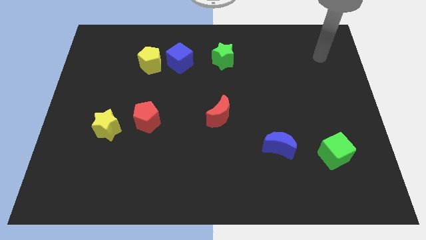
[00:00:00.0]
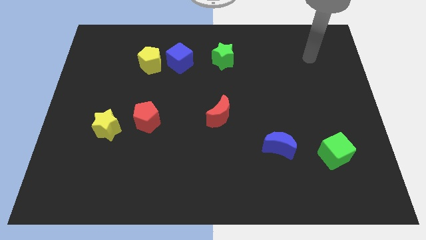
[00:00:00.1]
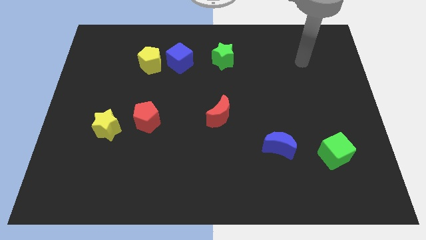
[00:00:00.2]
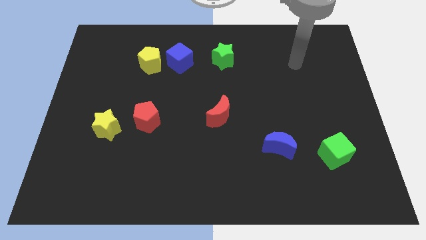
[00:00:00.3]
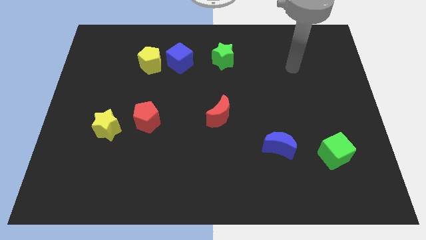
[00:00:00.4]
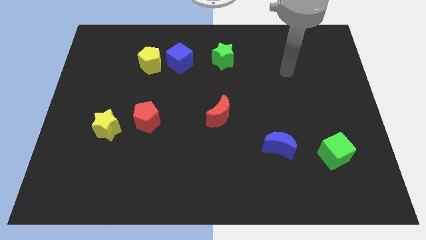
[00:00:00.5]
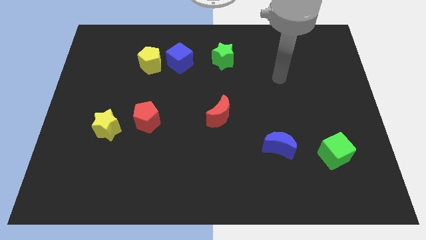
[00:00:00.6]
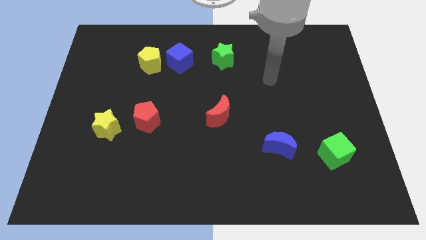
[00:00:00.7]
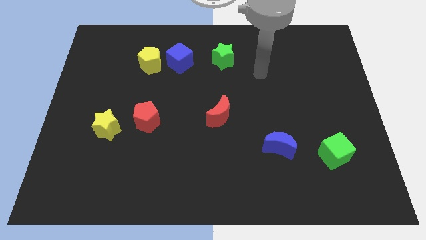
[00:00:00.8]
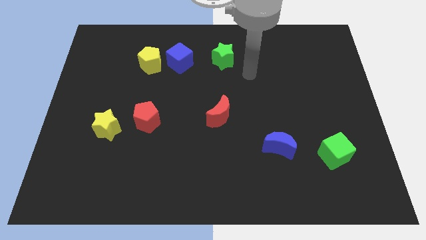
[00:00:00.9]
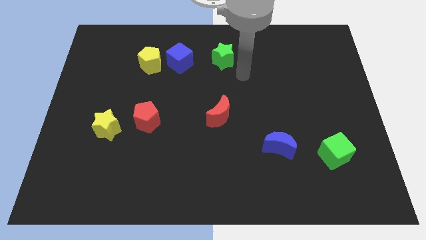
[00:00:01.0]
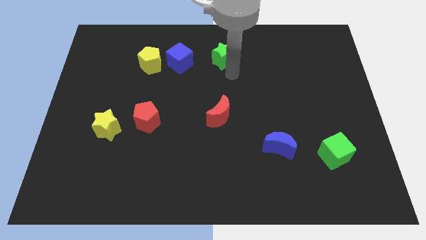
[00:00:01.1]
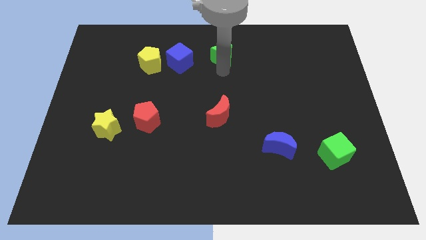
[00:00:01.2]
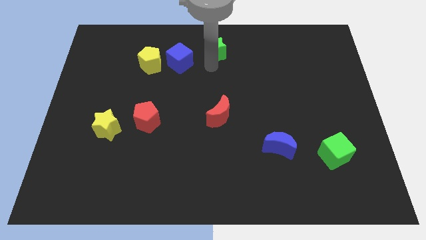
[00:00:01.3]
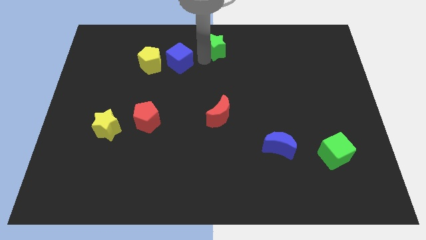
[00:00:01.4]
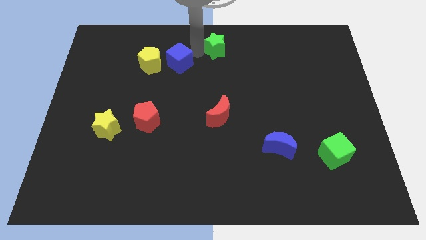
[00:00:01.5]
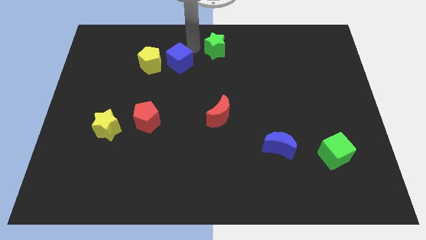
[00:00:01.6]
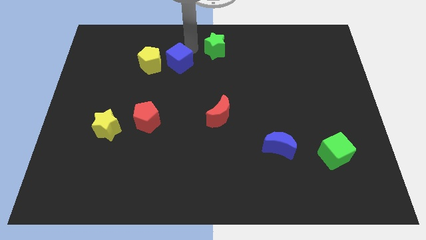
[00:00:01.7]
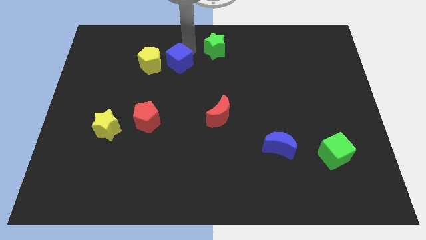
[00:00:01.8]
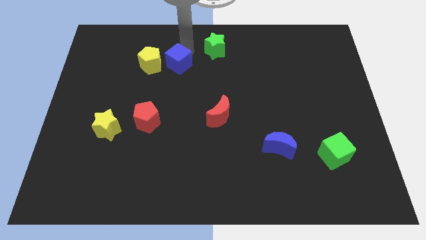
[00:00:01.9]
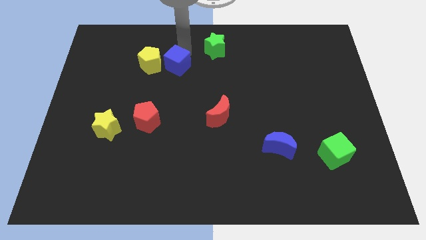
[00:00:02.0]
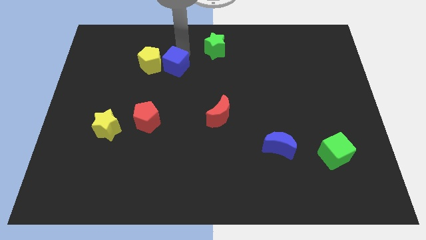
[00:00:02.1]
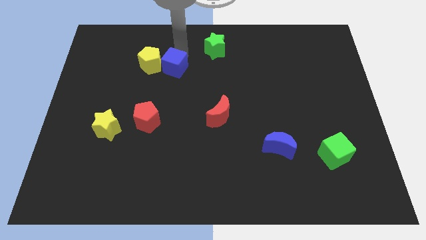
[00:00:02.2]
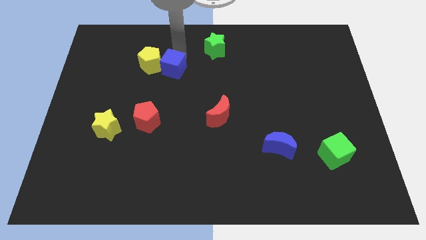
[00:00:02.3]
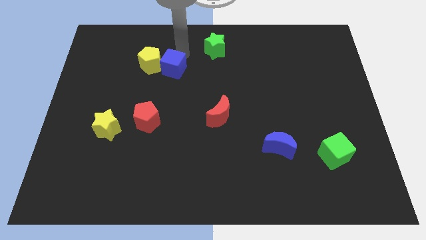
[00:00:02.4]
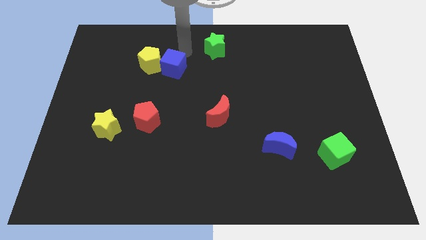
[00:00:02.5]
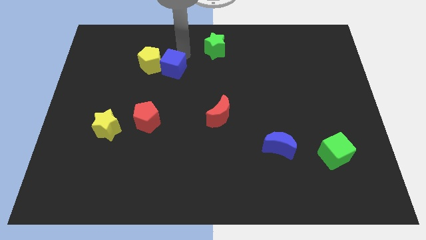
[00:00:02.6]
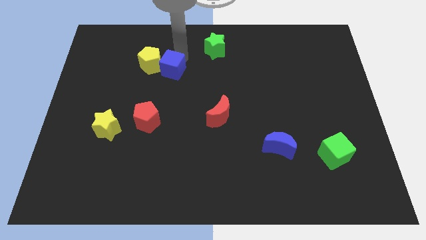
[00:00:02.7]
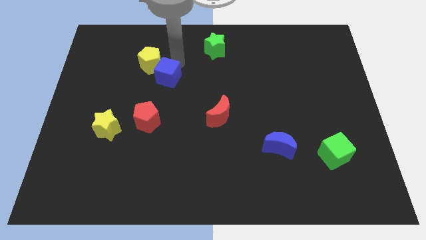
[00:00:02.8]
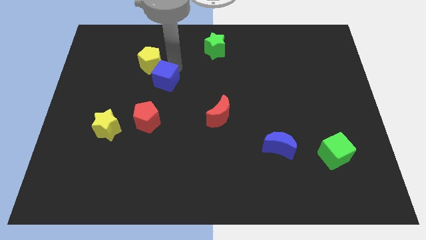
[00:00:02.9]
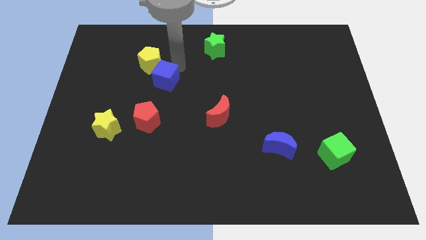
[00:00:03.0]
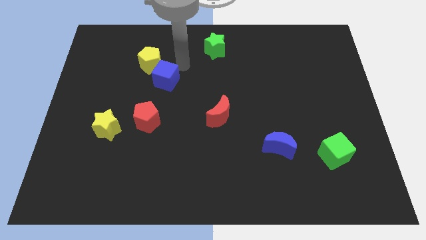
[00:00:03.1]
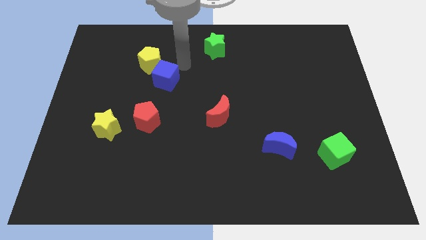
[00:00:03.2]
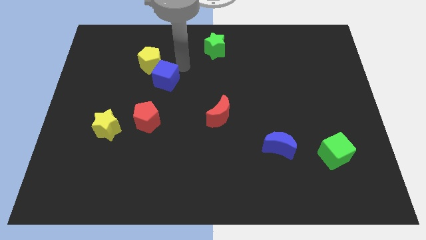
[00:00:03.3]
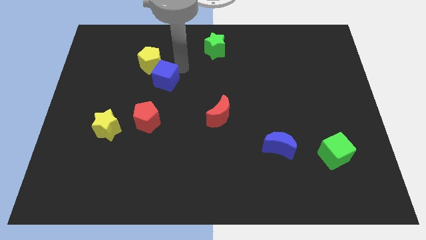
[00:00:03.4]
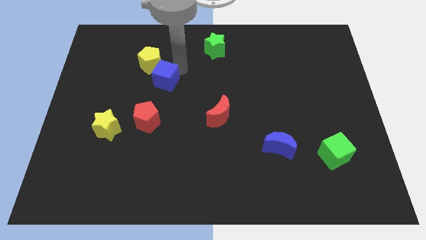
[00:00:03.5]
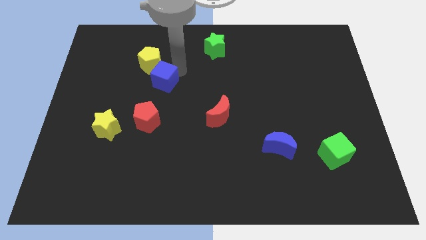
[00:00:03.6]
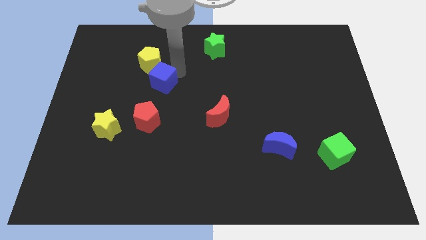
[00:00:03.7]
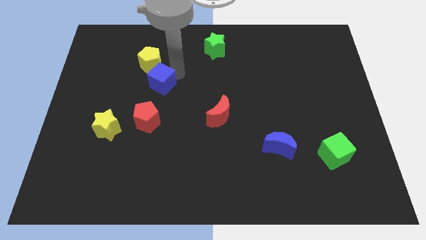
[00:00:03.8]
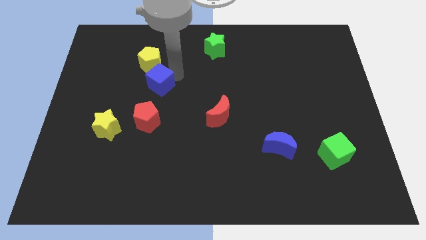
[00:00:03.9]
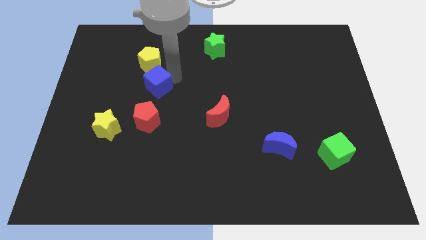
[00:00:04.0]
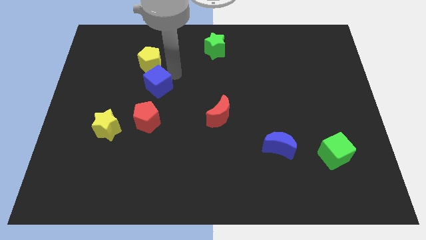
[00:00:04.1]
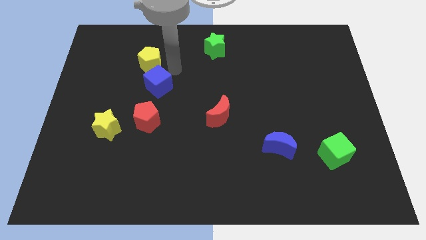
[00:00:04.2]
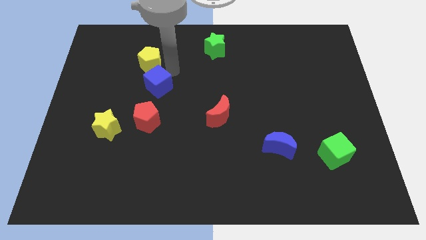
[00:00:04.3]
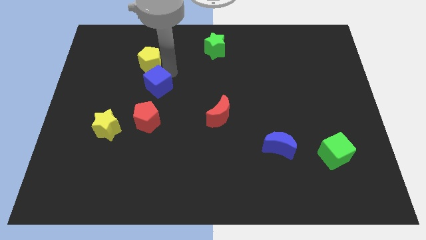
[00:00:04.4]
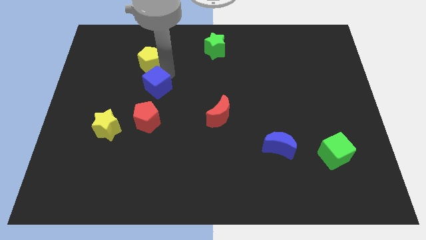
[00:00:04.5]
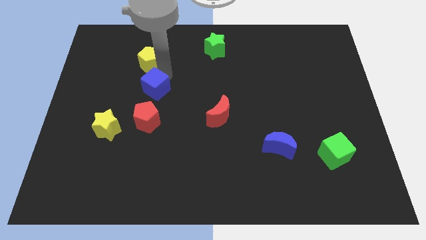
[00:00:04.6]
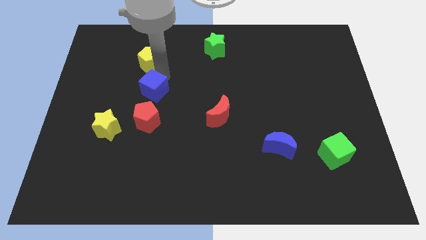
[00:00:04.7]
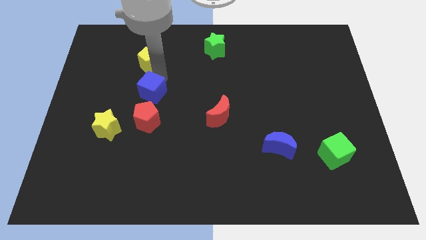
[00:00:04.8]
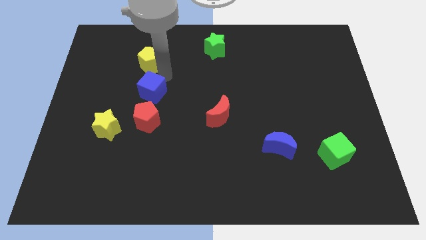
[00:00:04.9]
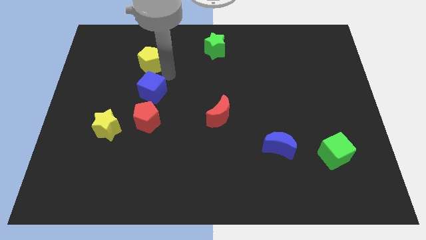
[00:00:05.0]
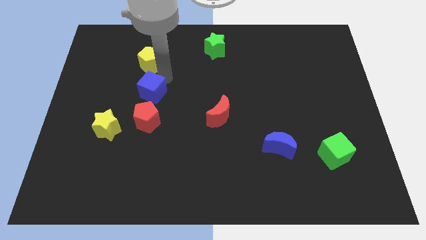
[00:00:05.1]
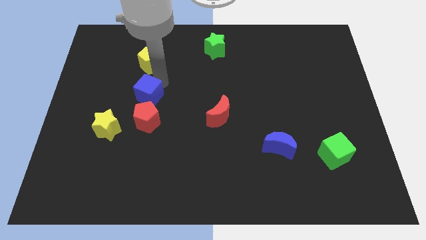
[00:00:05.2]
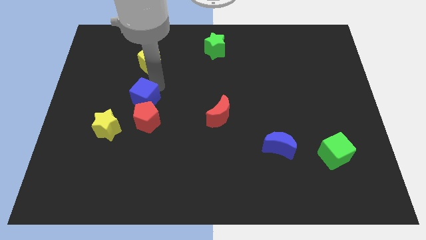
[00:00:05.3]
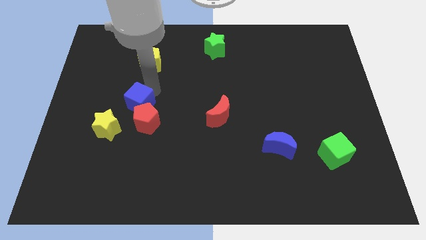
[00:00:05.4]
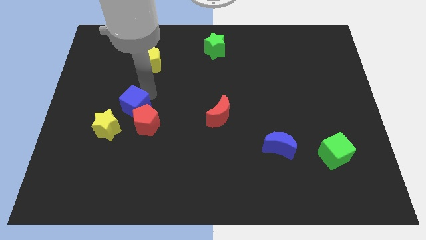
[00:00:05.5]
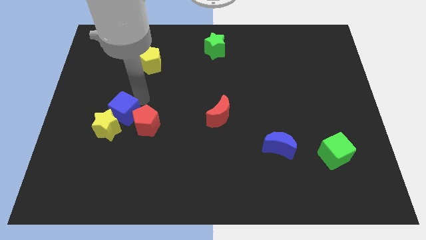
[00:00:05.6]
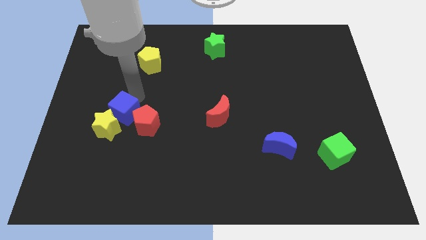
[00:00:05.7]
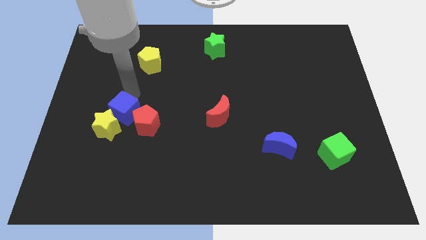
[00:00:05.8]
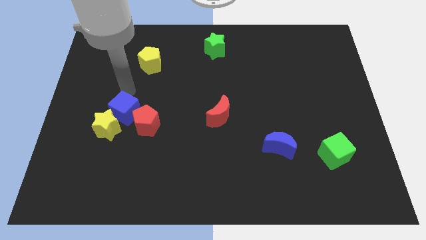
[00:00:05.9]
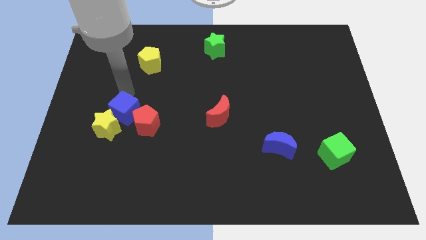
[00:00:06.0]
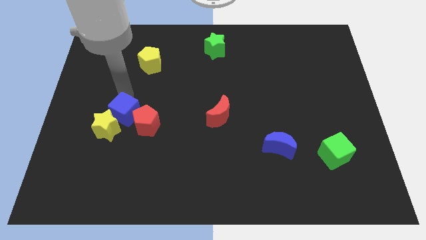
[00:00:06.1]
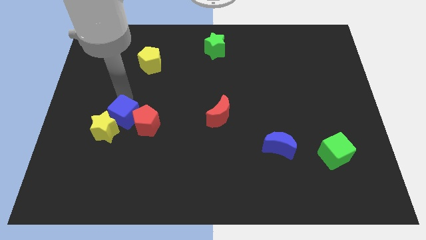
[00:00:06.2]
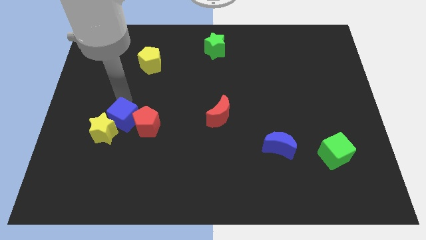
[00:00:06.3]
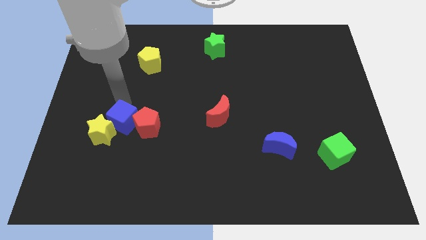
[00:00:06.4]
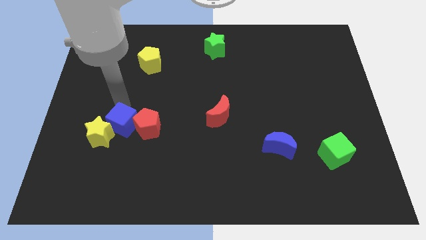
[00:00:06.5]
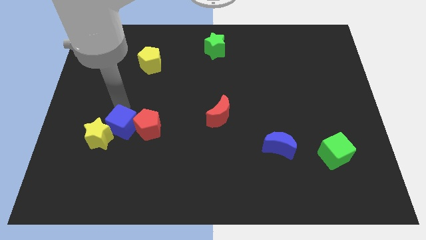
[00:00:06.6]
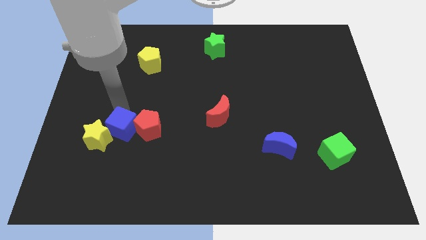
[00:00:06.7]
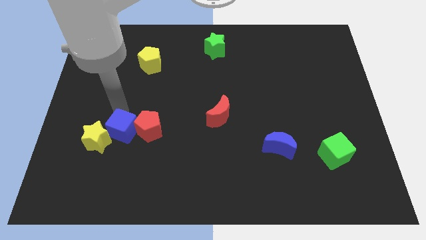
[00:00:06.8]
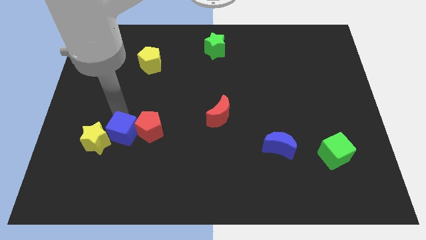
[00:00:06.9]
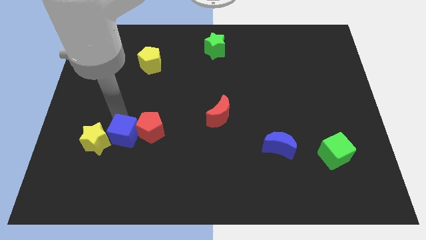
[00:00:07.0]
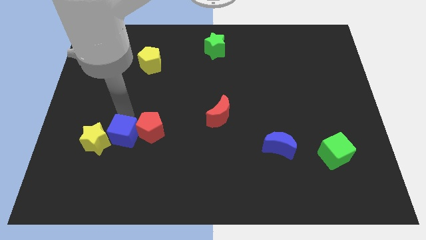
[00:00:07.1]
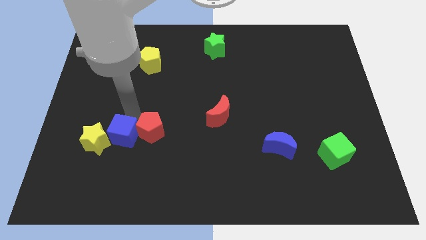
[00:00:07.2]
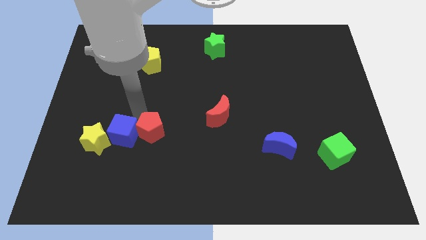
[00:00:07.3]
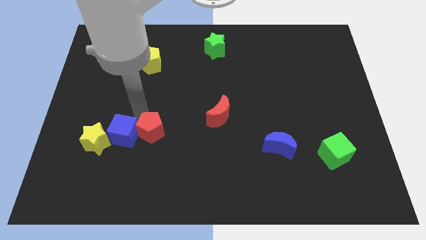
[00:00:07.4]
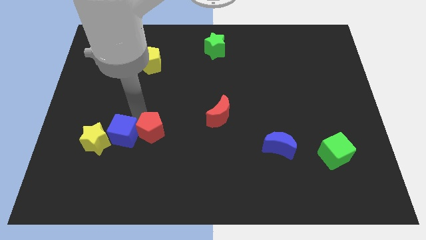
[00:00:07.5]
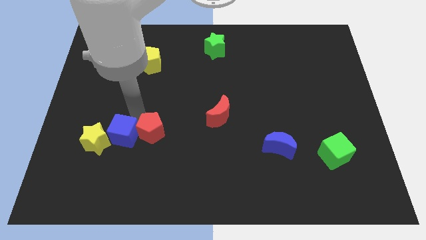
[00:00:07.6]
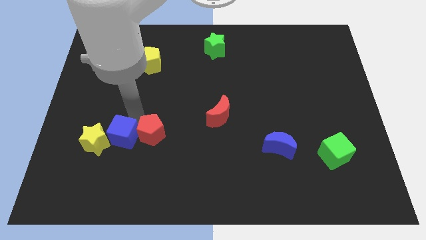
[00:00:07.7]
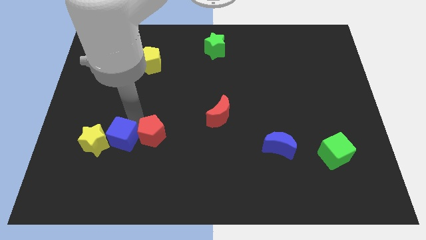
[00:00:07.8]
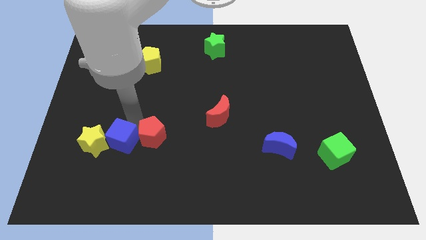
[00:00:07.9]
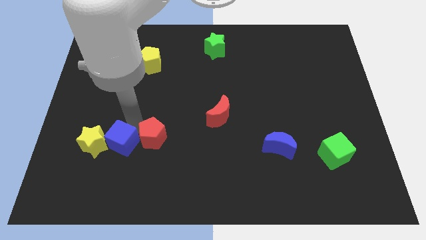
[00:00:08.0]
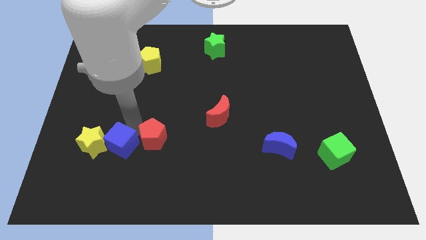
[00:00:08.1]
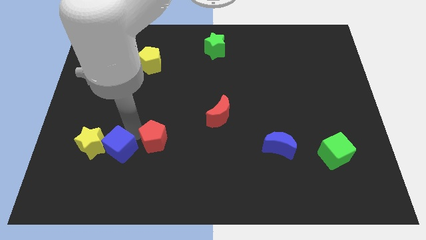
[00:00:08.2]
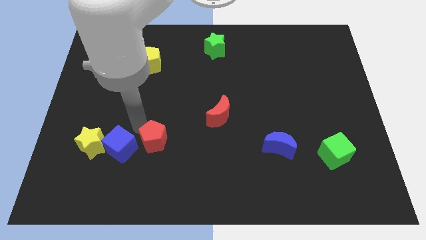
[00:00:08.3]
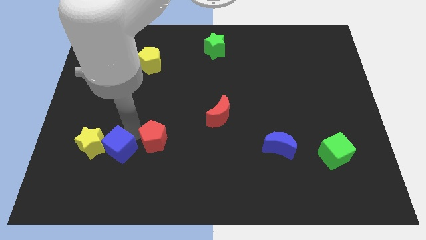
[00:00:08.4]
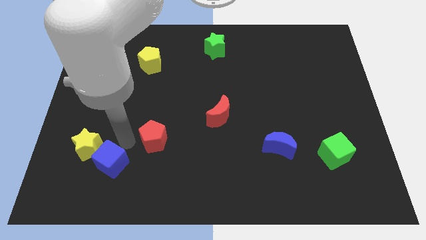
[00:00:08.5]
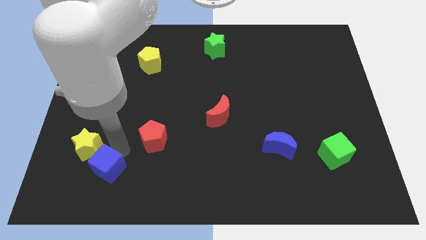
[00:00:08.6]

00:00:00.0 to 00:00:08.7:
push the blue cube to the bottom side of the yellow star
